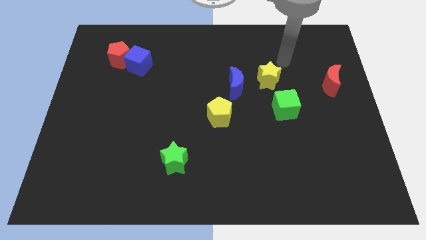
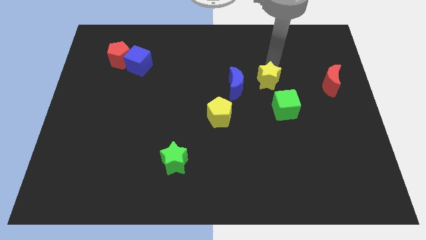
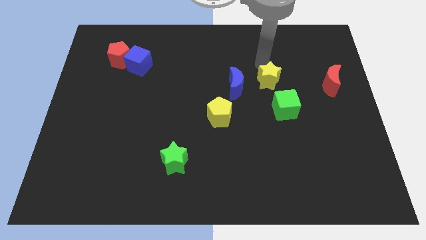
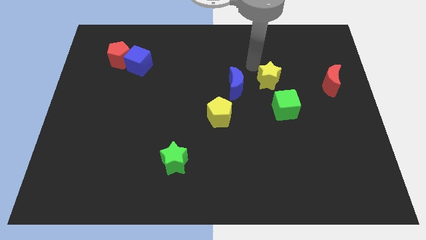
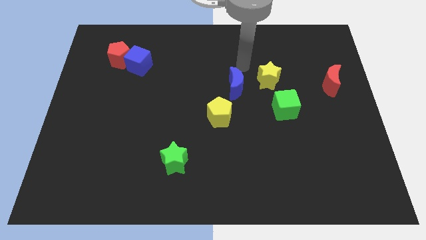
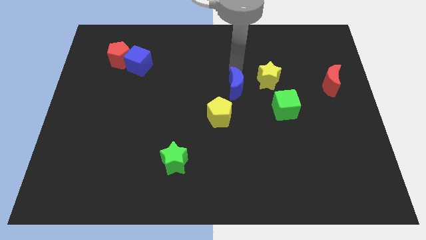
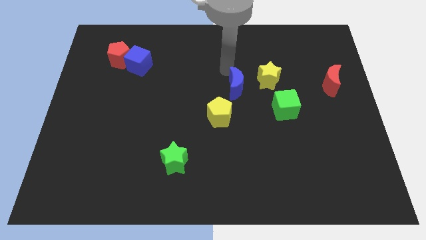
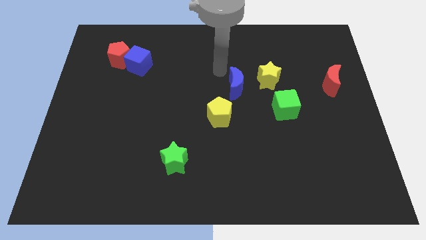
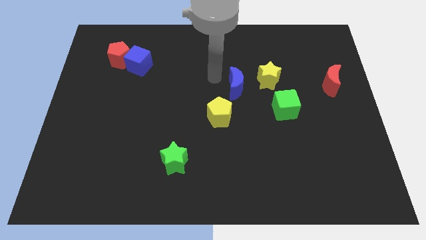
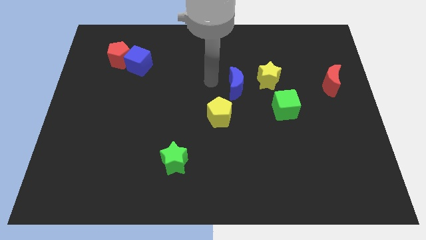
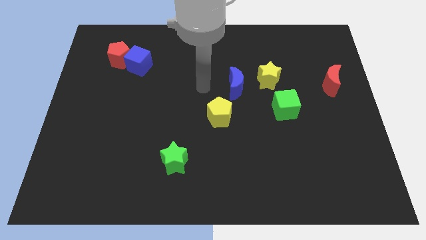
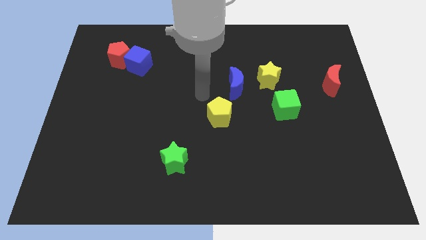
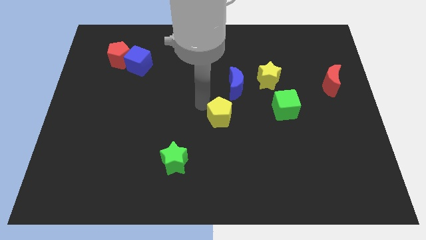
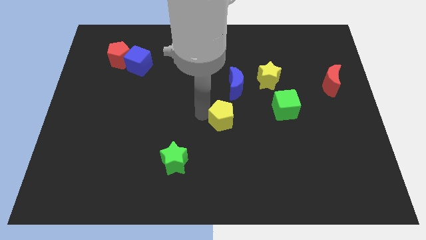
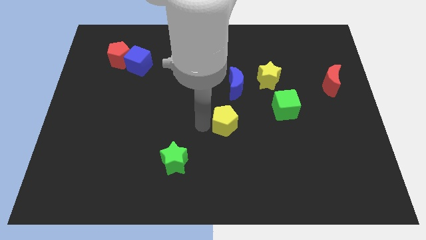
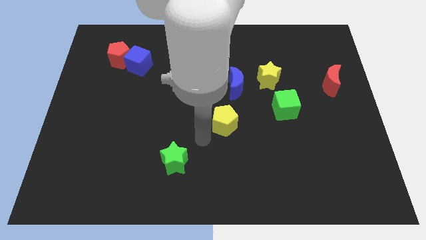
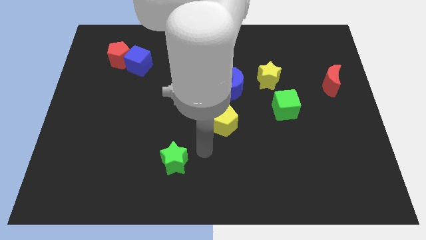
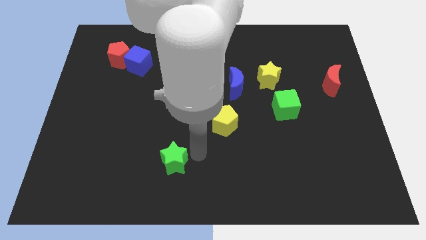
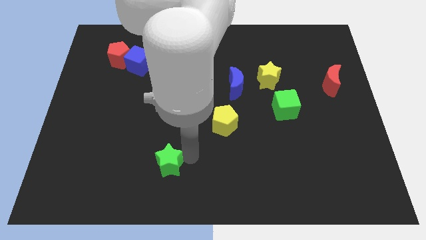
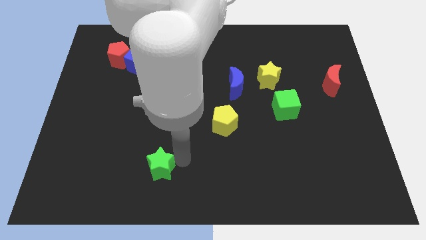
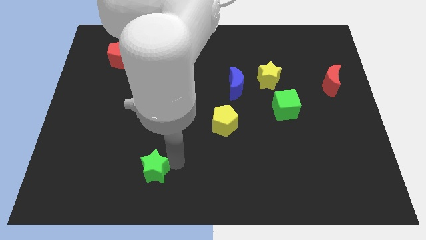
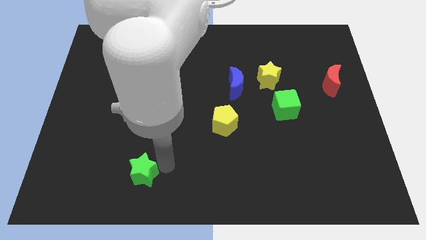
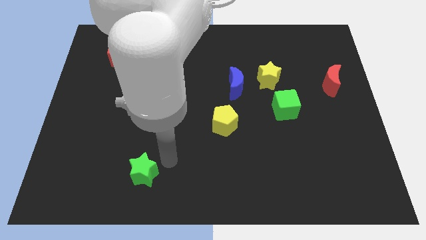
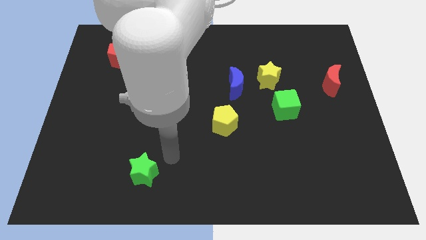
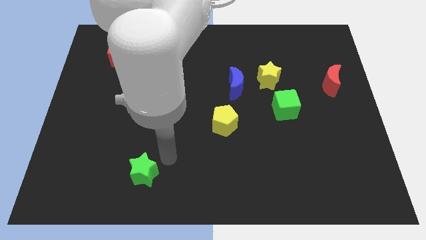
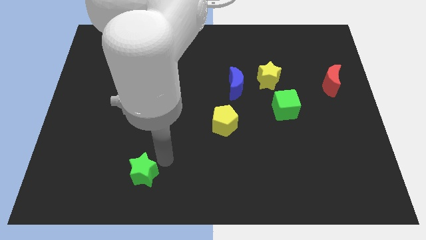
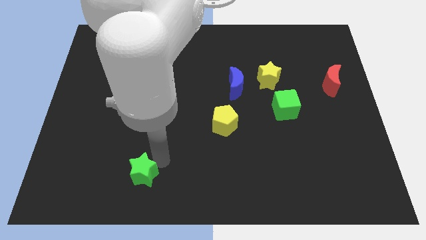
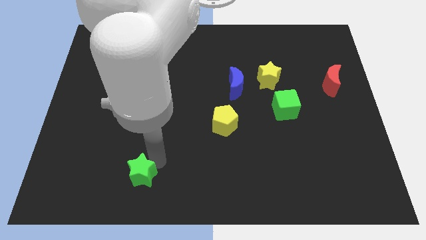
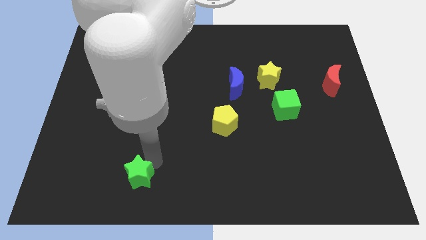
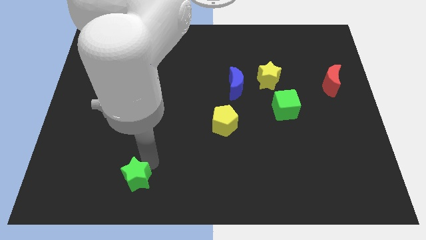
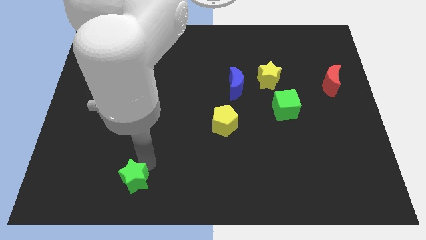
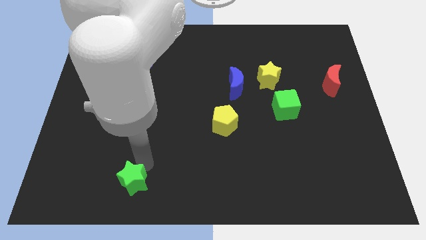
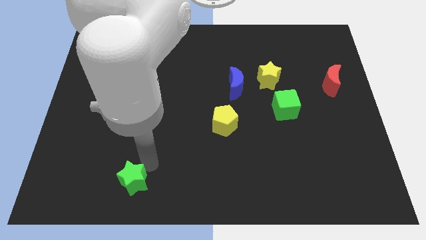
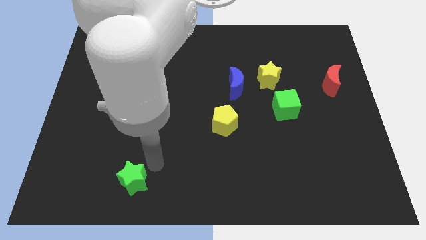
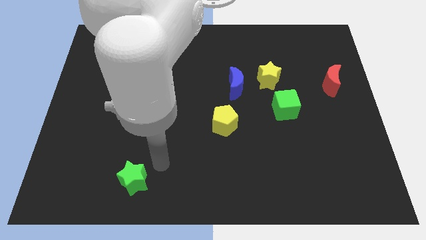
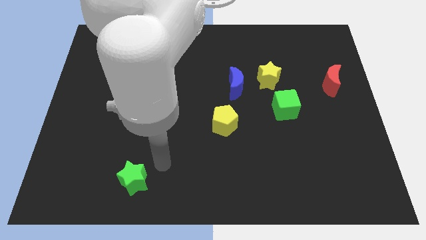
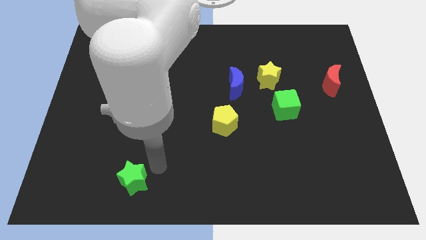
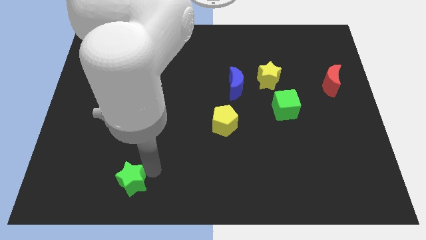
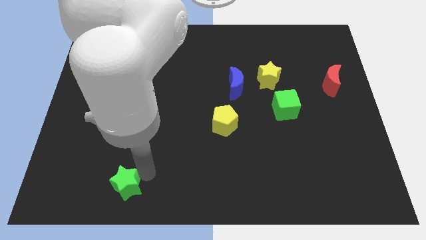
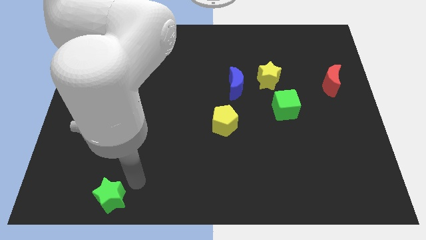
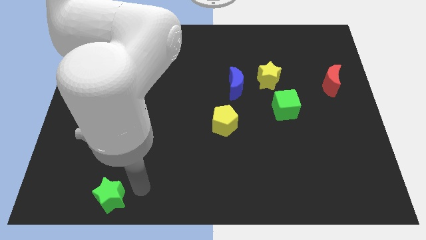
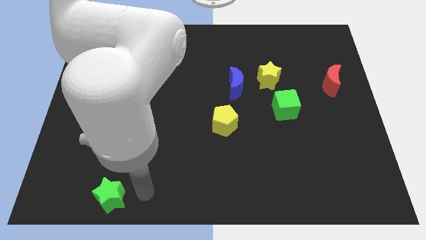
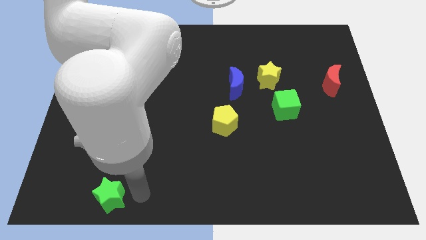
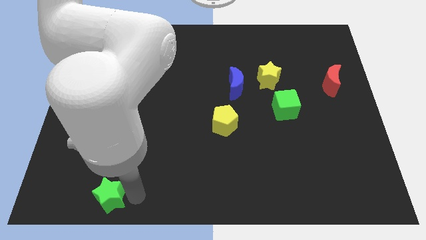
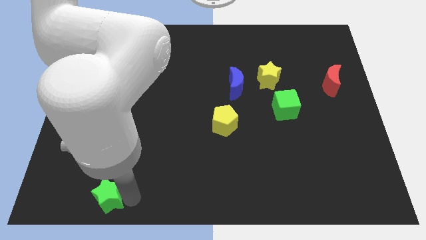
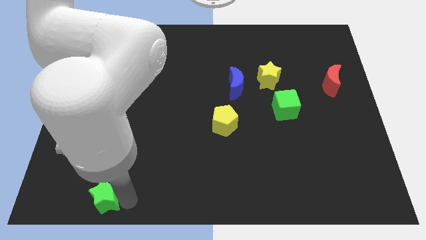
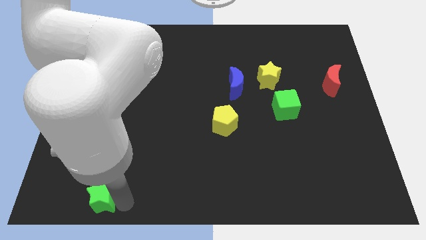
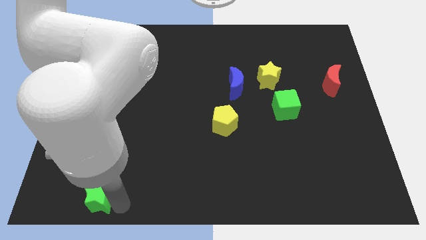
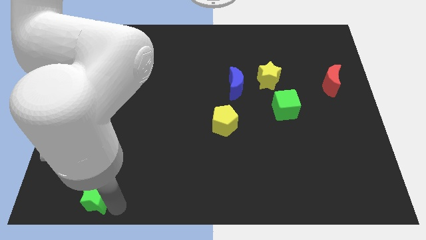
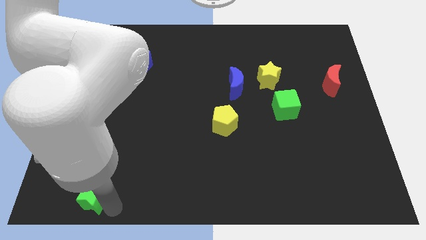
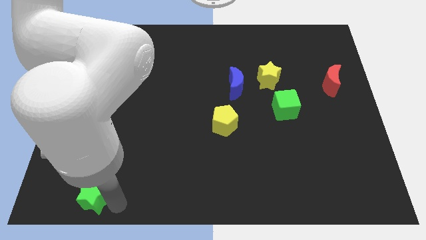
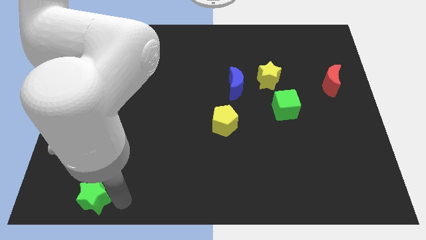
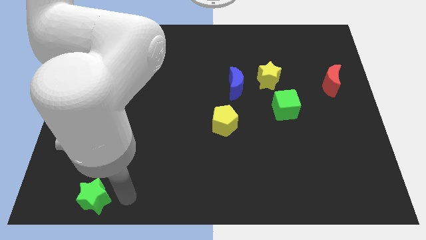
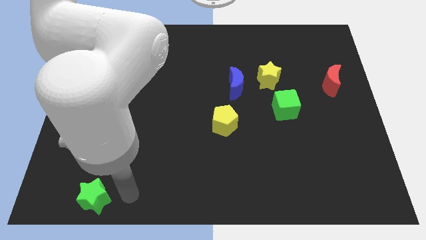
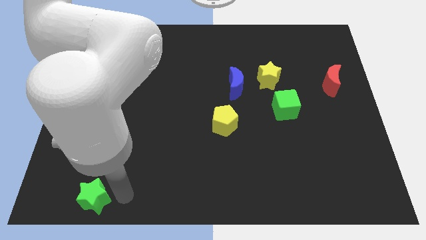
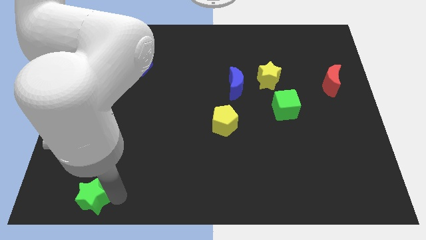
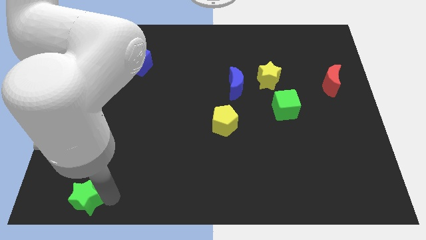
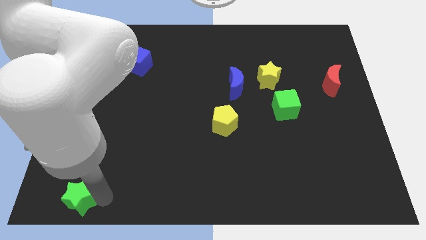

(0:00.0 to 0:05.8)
slide the green star to the bottom left of the board
